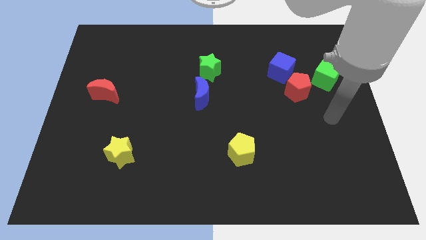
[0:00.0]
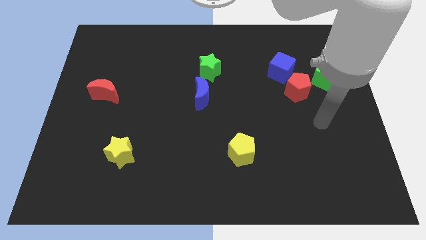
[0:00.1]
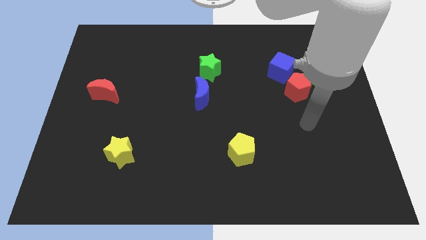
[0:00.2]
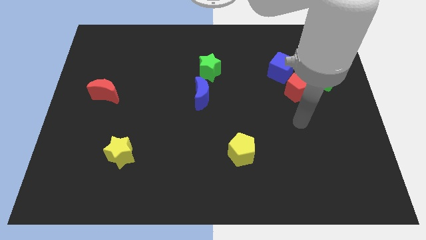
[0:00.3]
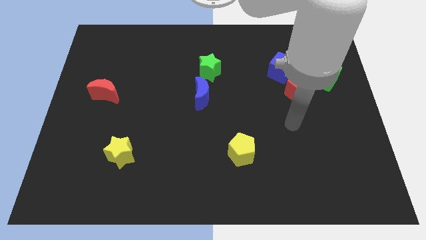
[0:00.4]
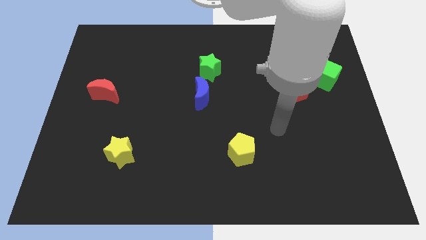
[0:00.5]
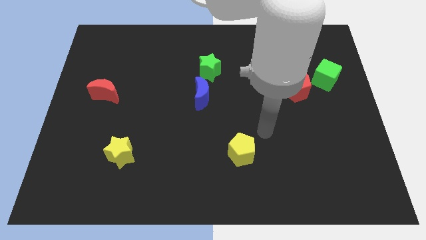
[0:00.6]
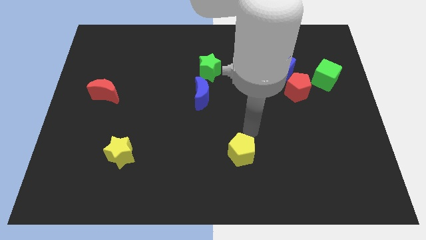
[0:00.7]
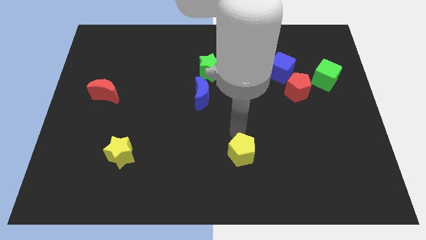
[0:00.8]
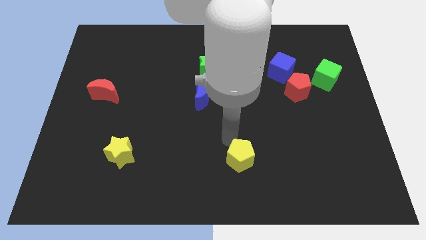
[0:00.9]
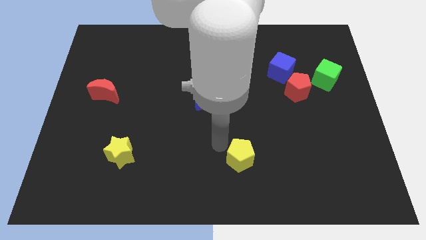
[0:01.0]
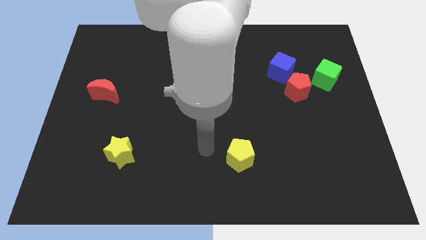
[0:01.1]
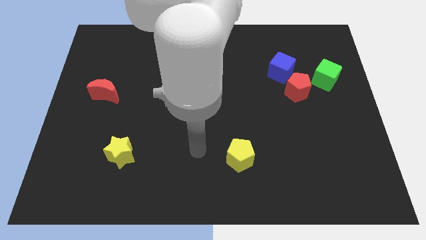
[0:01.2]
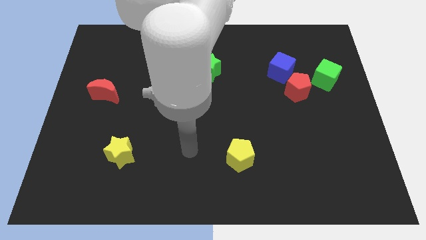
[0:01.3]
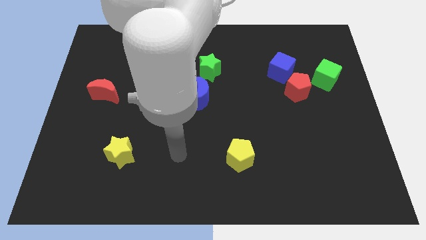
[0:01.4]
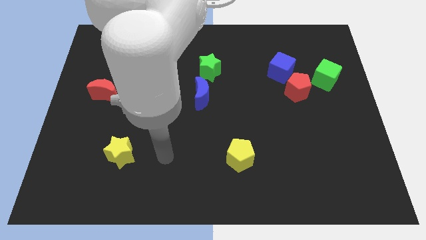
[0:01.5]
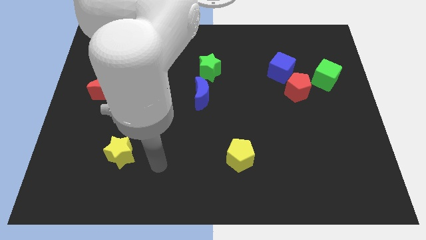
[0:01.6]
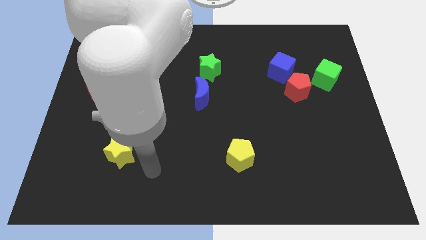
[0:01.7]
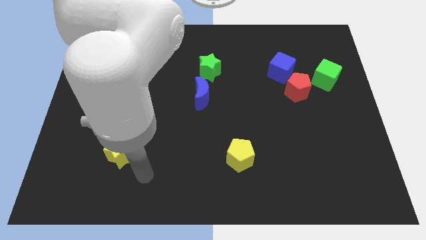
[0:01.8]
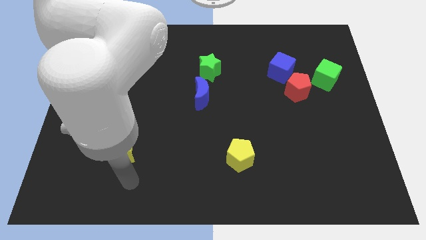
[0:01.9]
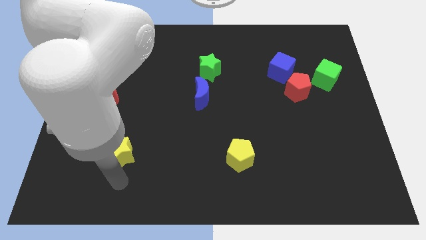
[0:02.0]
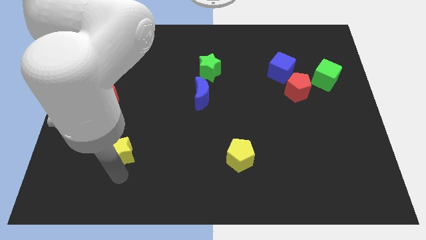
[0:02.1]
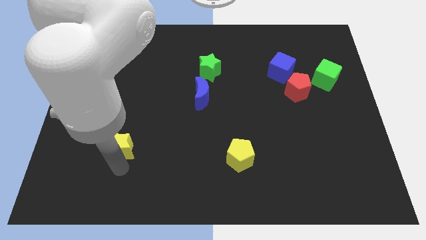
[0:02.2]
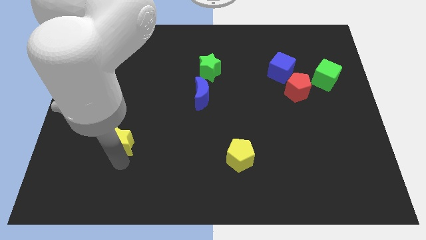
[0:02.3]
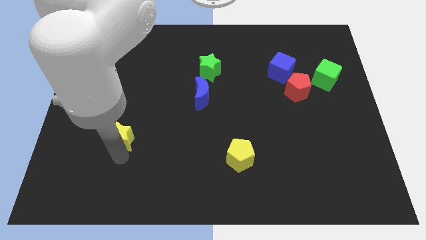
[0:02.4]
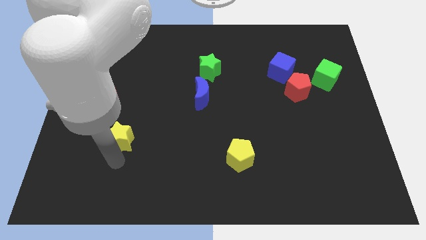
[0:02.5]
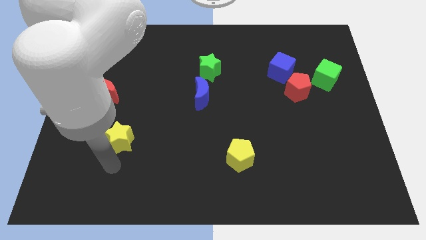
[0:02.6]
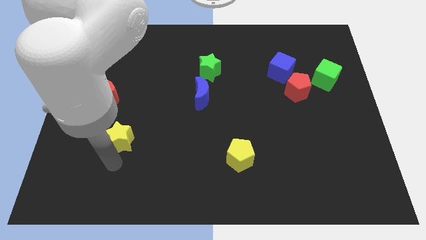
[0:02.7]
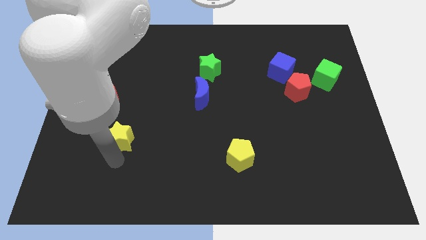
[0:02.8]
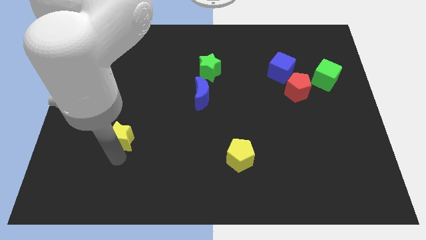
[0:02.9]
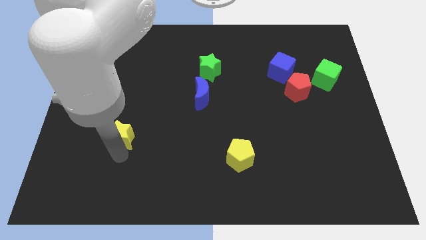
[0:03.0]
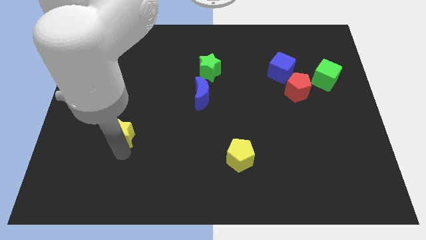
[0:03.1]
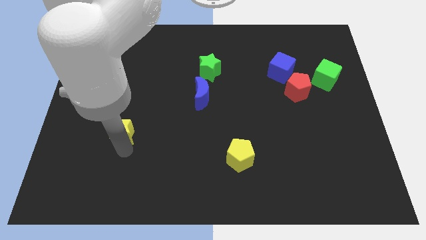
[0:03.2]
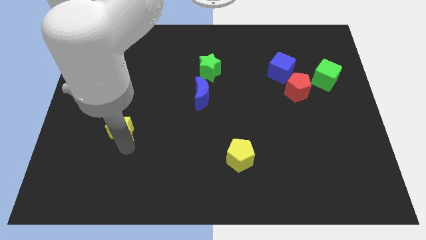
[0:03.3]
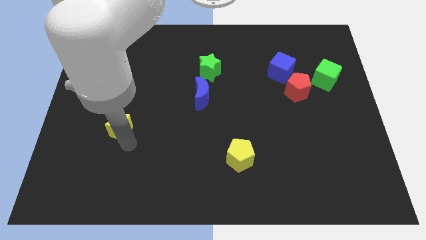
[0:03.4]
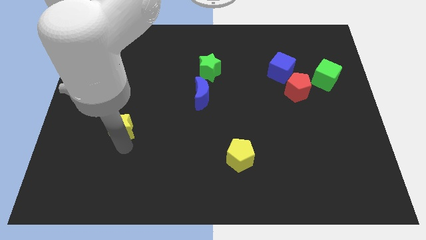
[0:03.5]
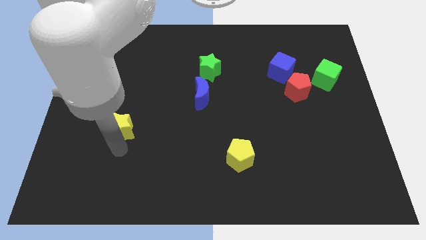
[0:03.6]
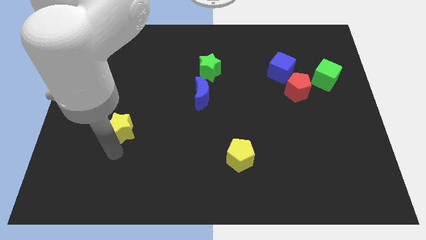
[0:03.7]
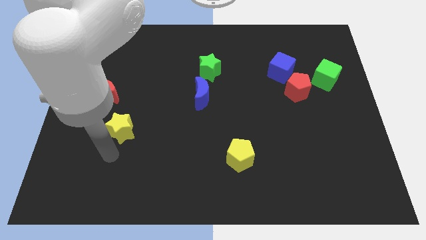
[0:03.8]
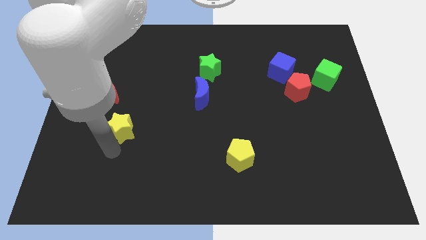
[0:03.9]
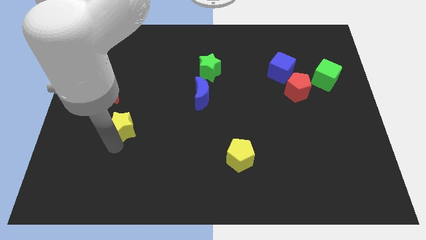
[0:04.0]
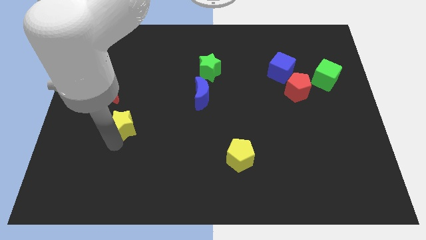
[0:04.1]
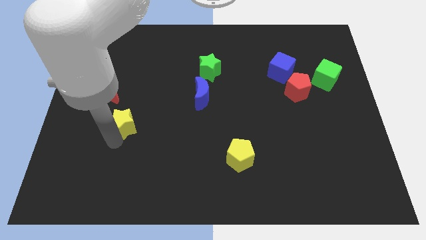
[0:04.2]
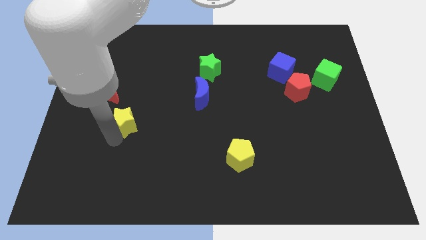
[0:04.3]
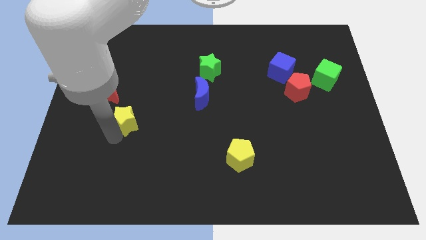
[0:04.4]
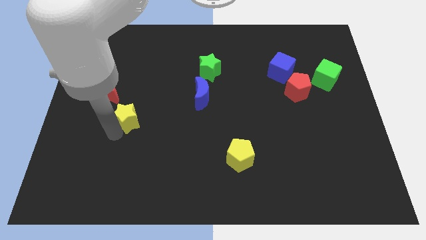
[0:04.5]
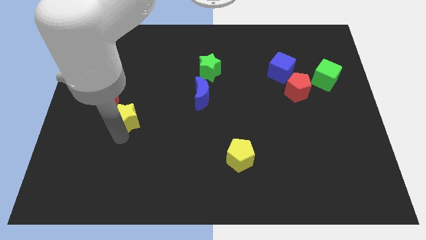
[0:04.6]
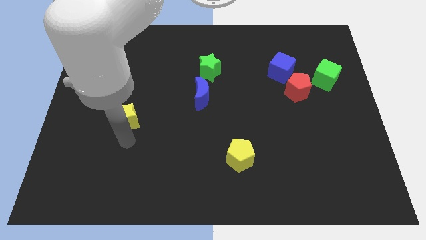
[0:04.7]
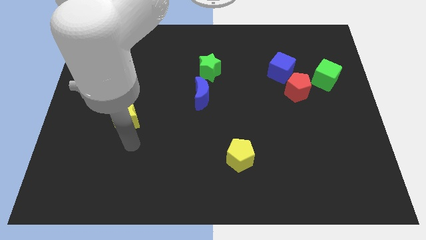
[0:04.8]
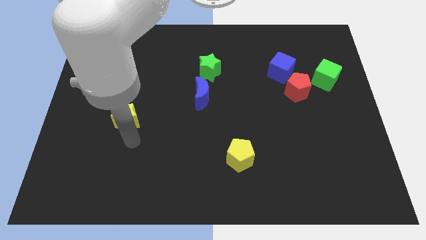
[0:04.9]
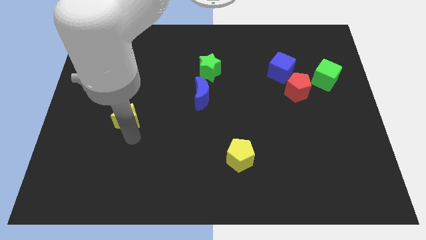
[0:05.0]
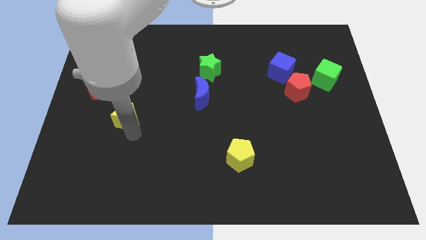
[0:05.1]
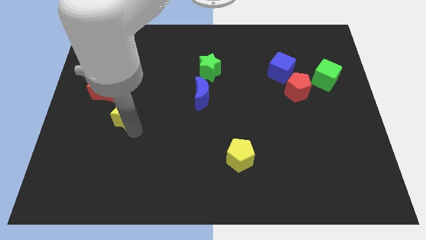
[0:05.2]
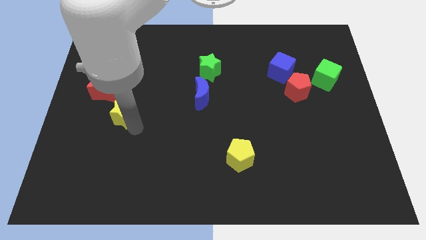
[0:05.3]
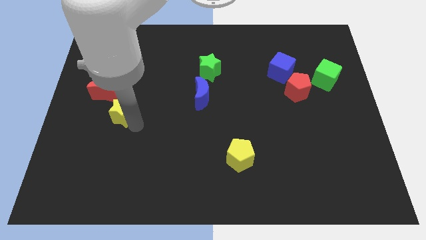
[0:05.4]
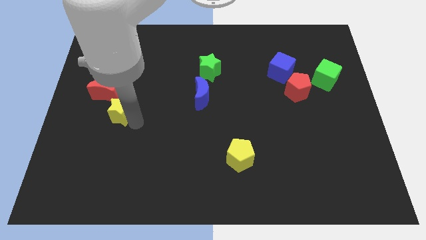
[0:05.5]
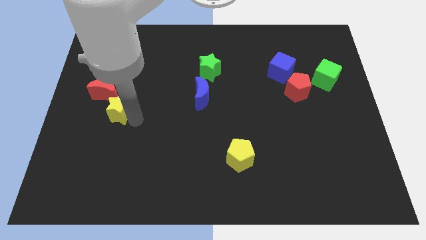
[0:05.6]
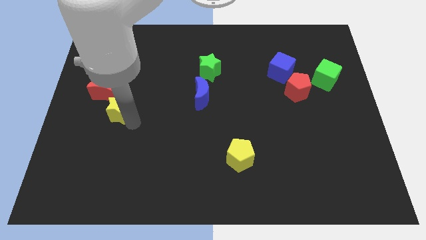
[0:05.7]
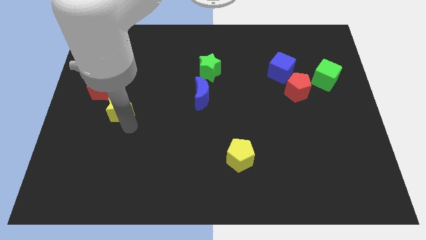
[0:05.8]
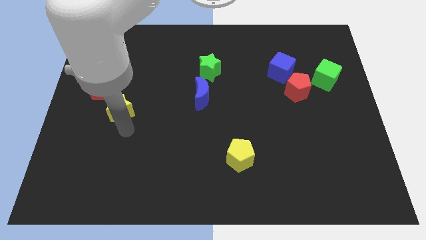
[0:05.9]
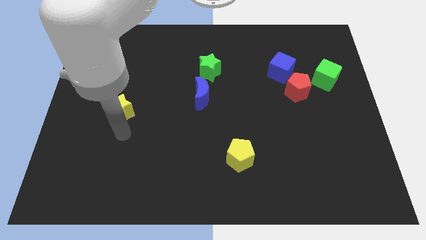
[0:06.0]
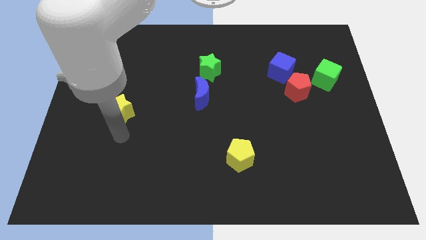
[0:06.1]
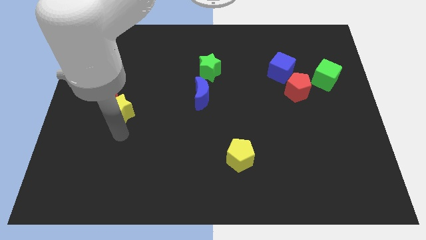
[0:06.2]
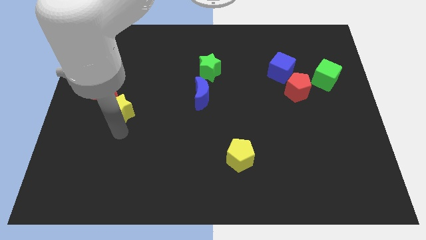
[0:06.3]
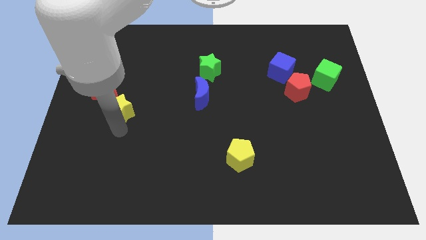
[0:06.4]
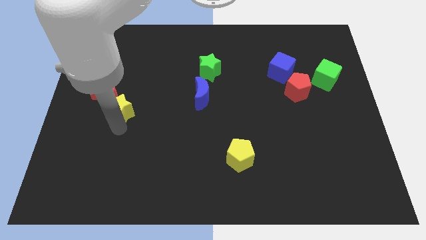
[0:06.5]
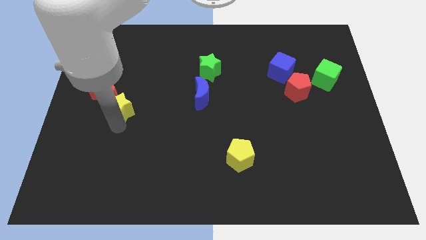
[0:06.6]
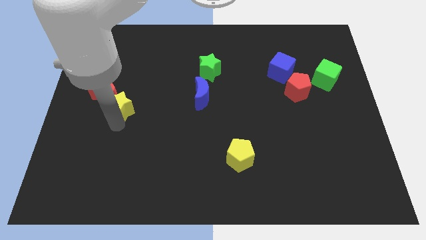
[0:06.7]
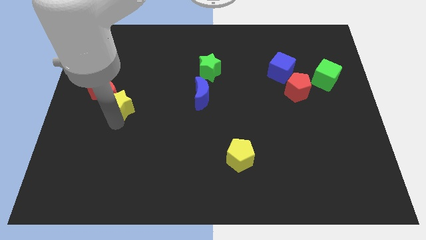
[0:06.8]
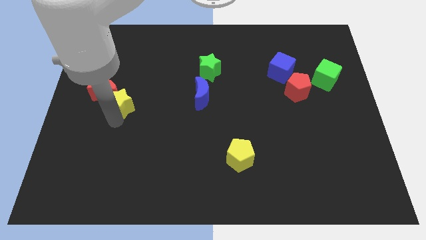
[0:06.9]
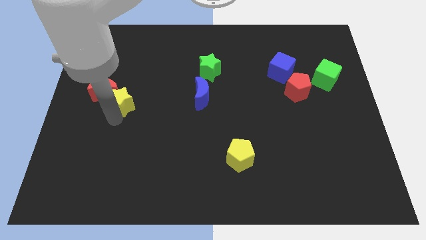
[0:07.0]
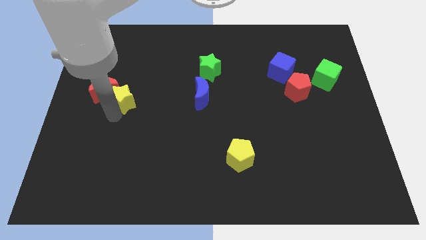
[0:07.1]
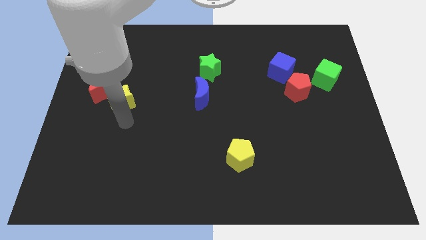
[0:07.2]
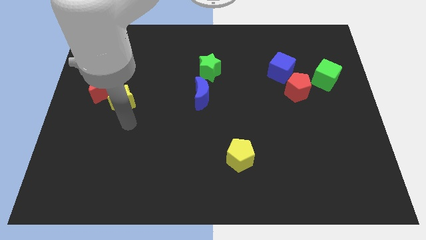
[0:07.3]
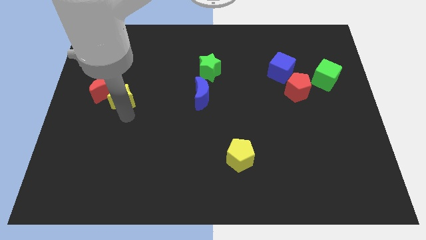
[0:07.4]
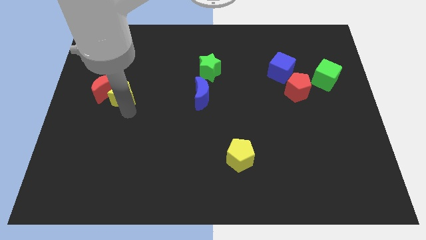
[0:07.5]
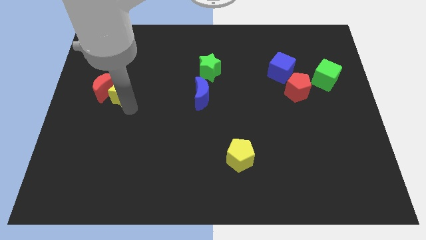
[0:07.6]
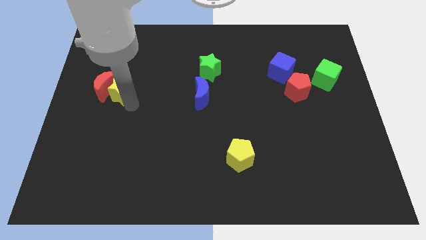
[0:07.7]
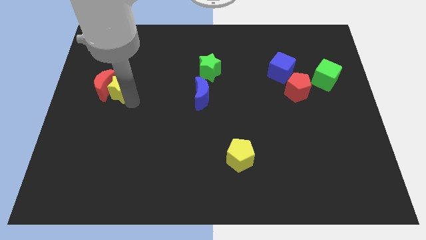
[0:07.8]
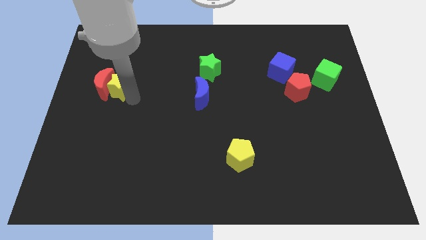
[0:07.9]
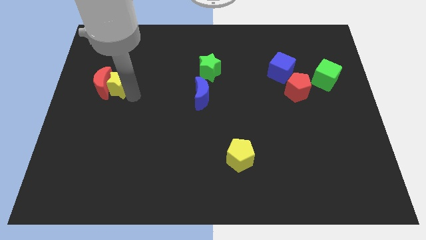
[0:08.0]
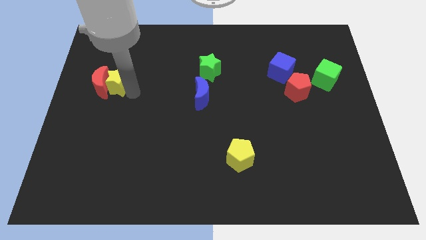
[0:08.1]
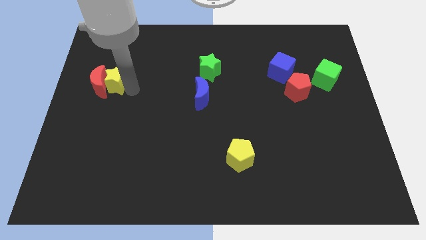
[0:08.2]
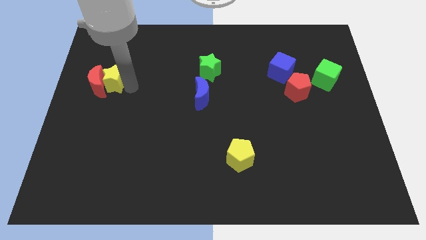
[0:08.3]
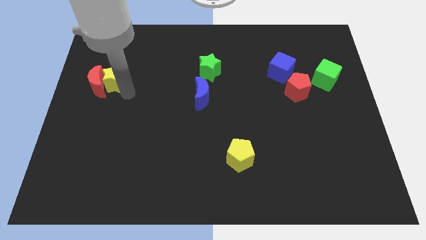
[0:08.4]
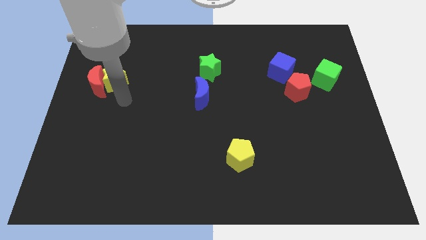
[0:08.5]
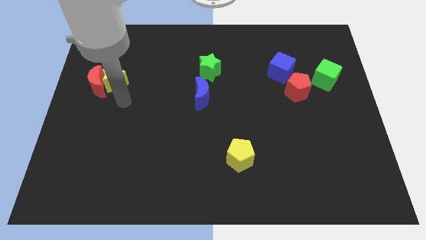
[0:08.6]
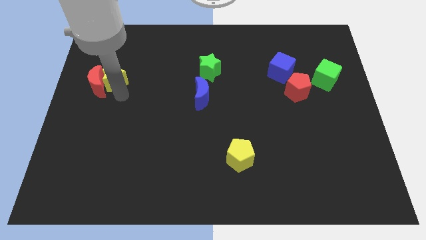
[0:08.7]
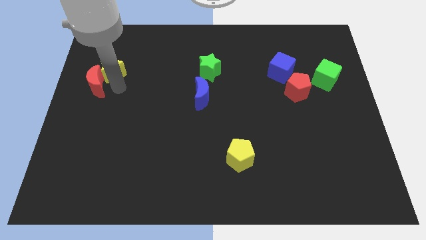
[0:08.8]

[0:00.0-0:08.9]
slide the yellow star above the red moon
